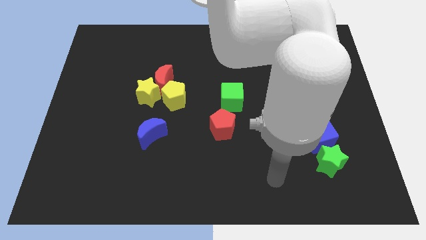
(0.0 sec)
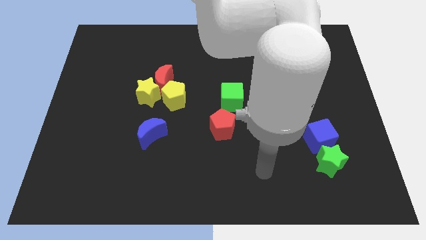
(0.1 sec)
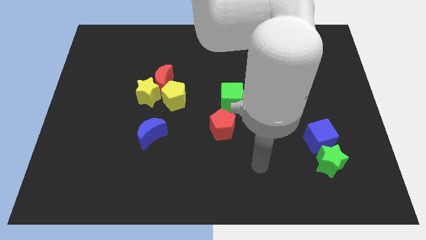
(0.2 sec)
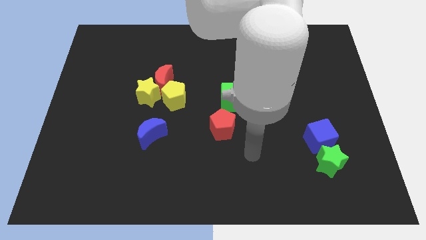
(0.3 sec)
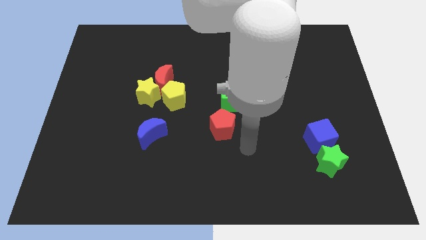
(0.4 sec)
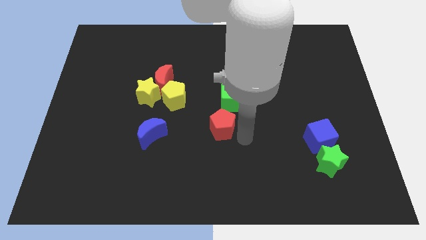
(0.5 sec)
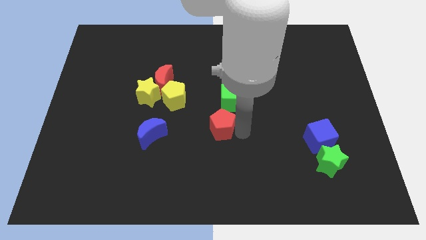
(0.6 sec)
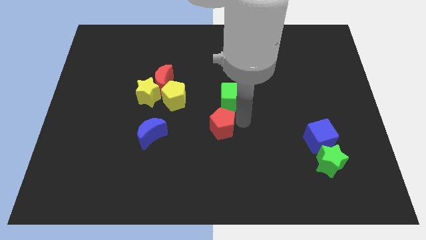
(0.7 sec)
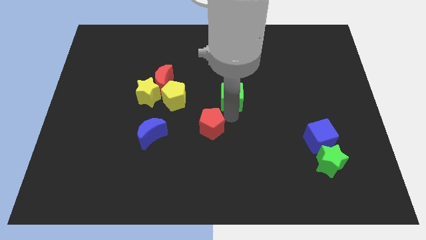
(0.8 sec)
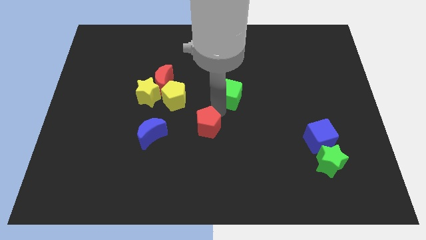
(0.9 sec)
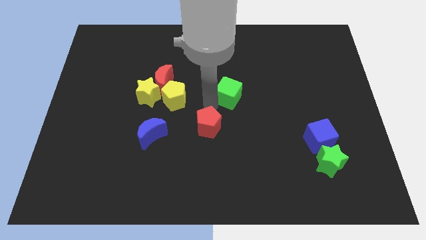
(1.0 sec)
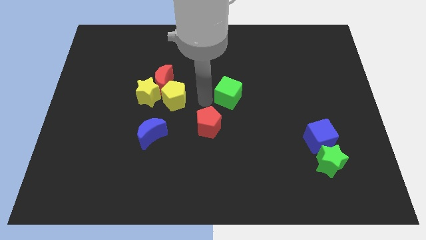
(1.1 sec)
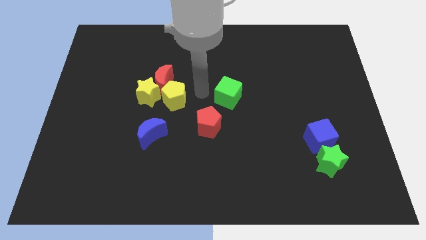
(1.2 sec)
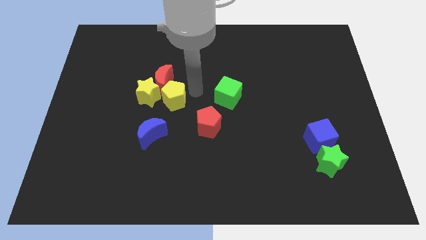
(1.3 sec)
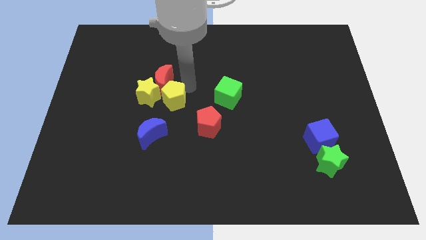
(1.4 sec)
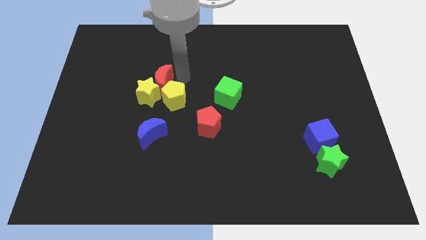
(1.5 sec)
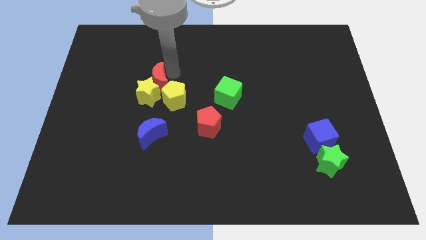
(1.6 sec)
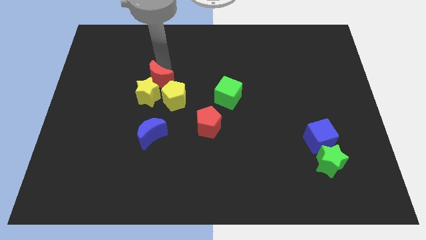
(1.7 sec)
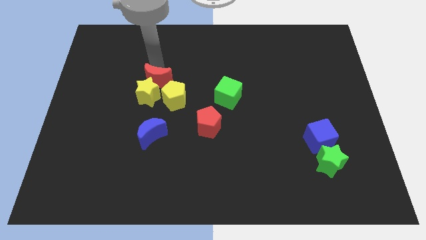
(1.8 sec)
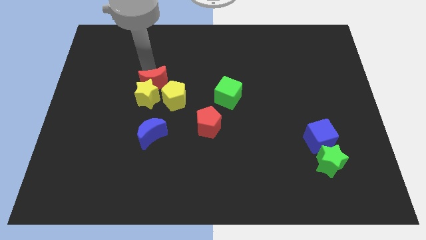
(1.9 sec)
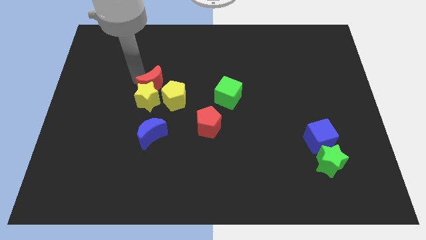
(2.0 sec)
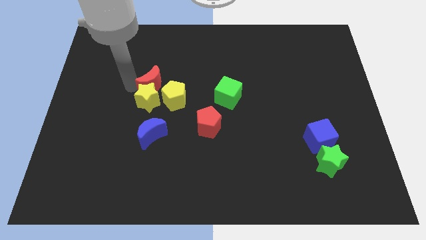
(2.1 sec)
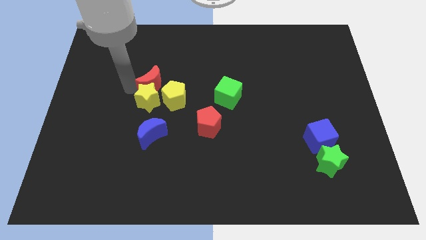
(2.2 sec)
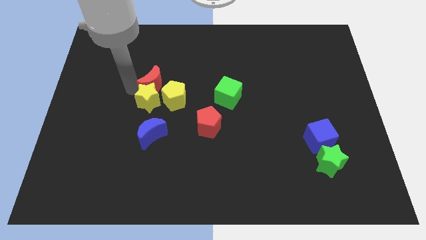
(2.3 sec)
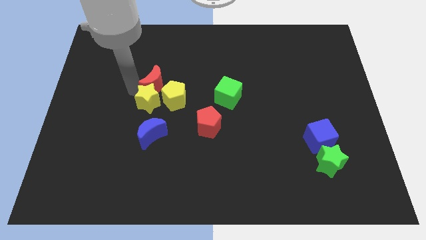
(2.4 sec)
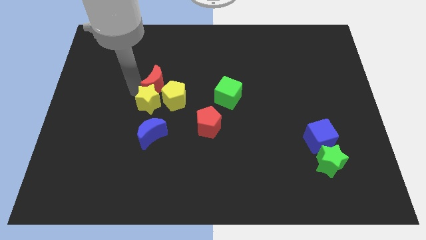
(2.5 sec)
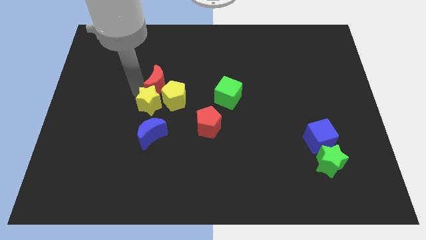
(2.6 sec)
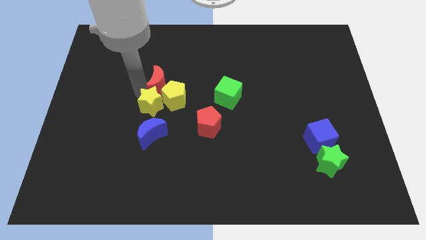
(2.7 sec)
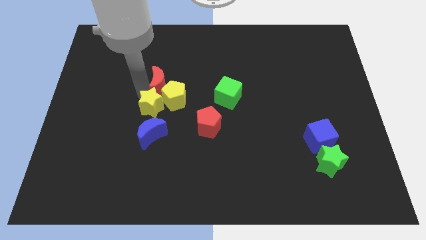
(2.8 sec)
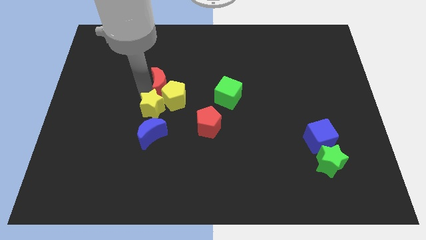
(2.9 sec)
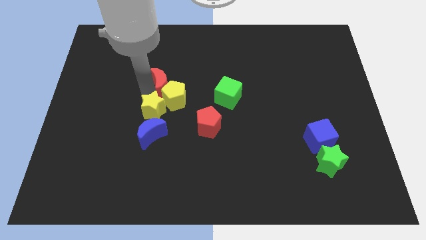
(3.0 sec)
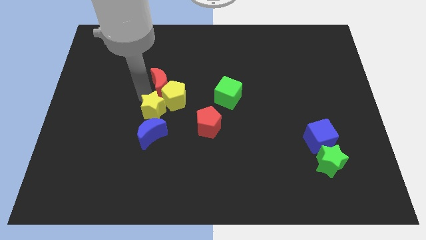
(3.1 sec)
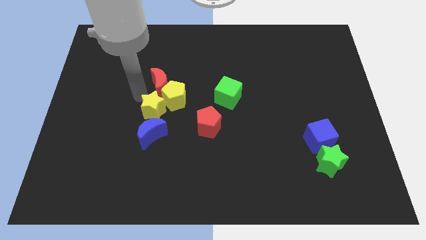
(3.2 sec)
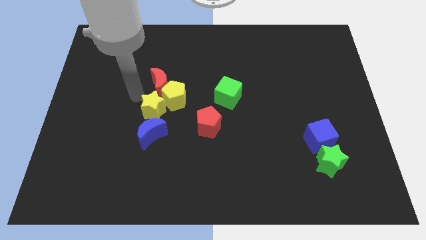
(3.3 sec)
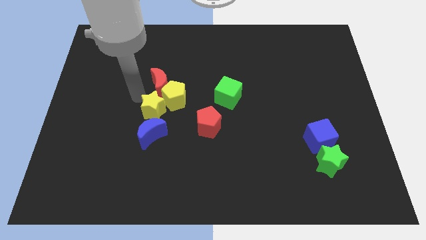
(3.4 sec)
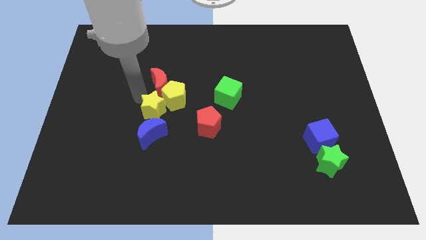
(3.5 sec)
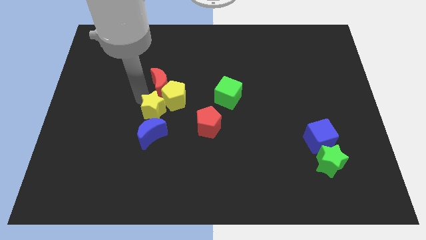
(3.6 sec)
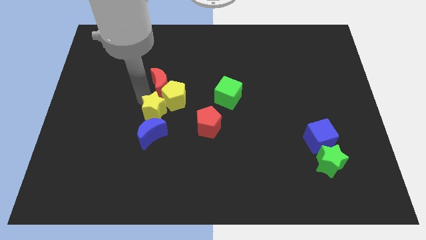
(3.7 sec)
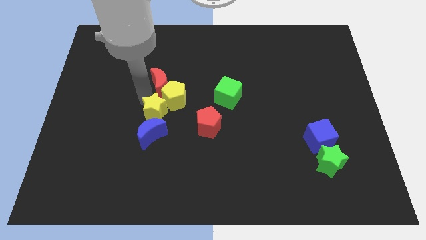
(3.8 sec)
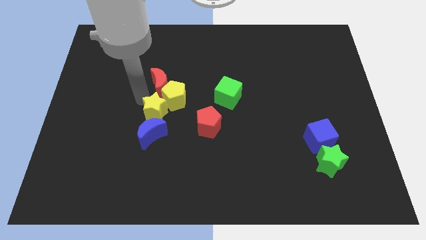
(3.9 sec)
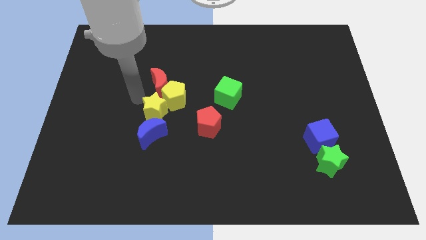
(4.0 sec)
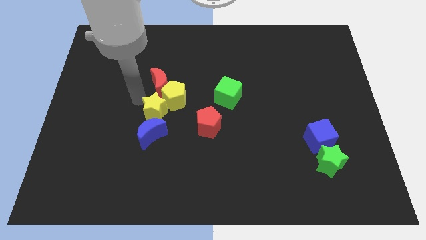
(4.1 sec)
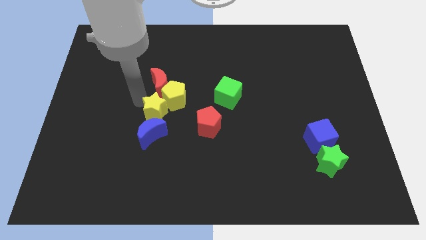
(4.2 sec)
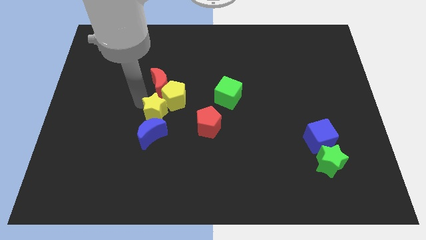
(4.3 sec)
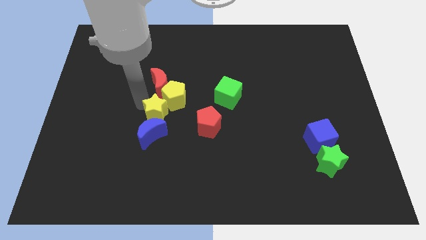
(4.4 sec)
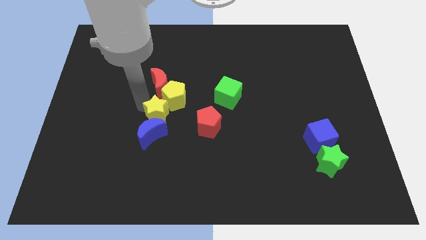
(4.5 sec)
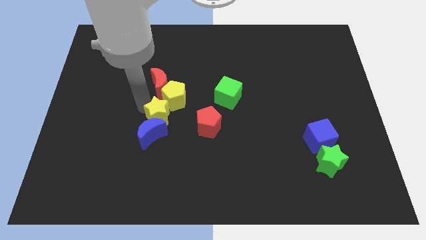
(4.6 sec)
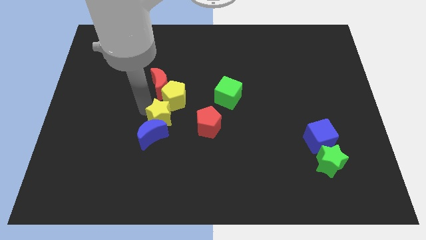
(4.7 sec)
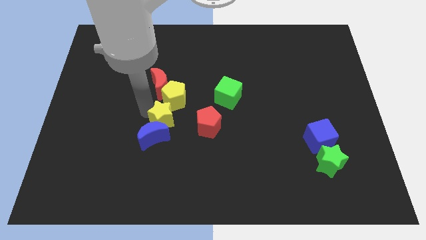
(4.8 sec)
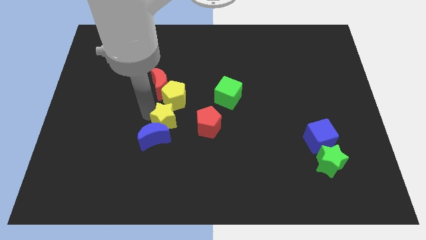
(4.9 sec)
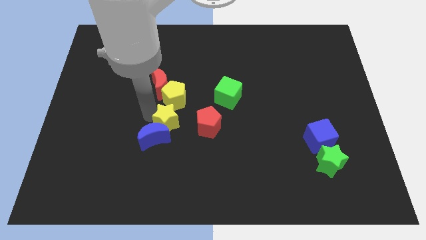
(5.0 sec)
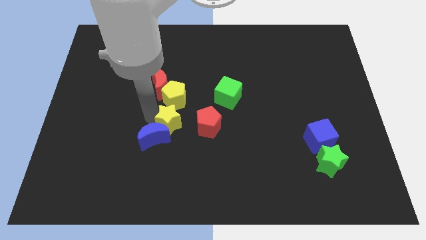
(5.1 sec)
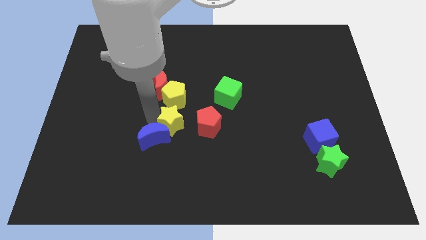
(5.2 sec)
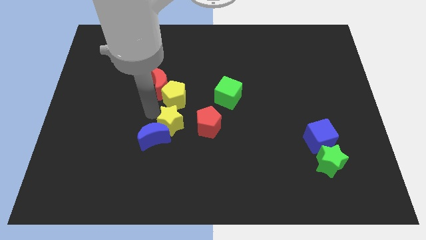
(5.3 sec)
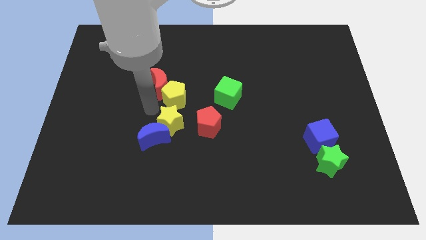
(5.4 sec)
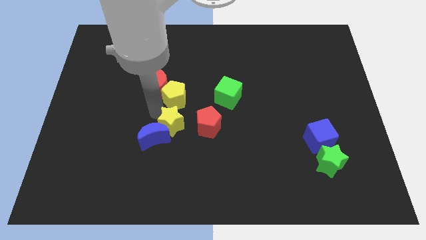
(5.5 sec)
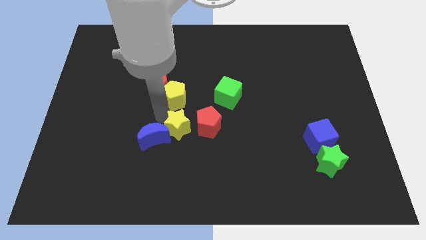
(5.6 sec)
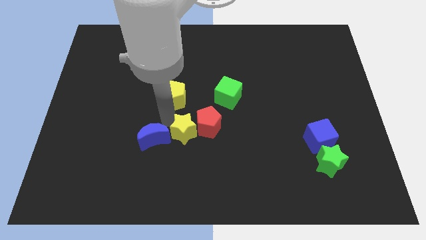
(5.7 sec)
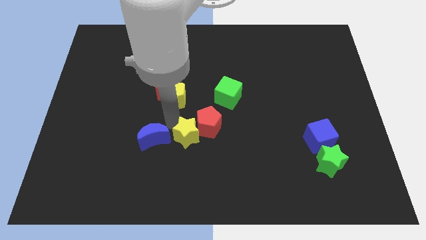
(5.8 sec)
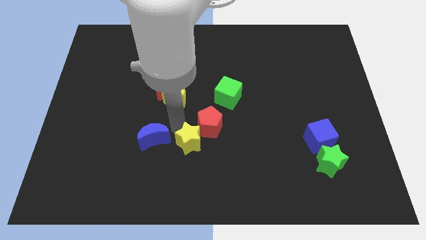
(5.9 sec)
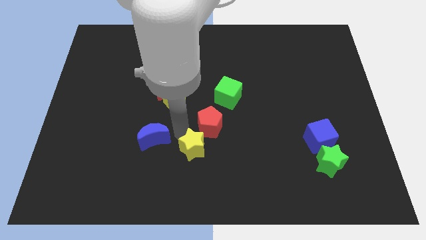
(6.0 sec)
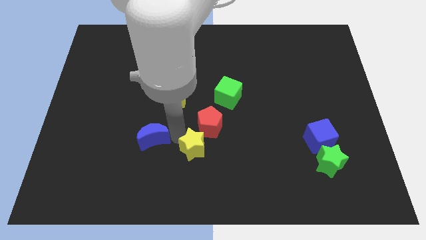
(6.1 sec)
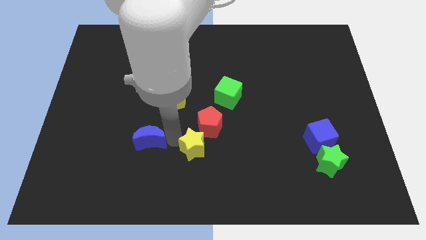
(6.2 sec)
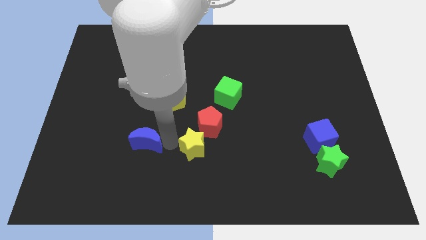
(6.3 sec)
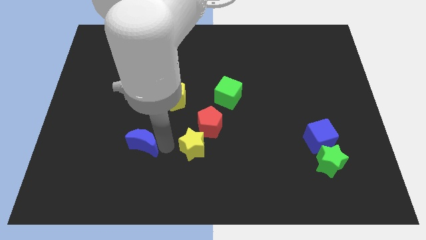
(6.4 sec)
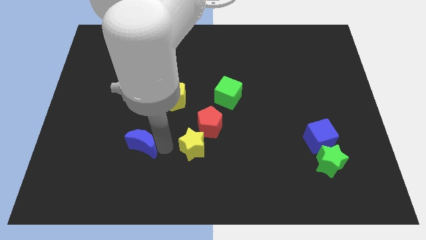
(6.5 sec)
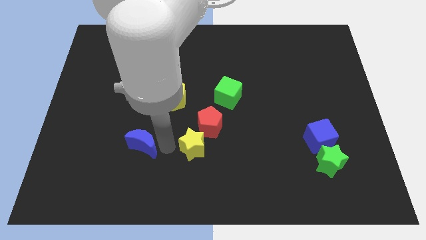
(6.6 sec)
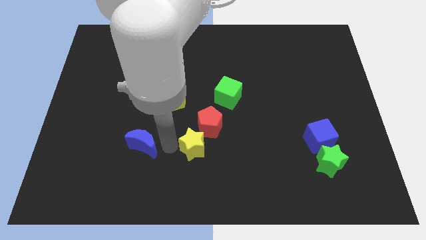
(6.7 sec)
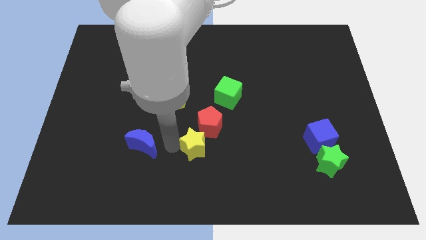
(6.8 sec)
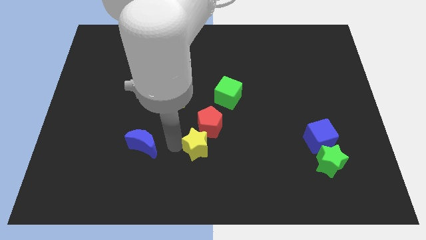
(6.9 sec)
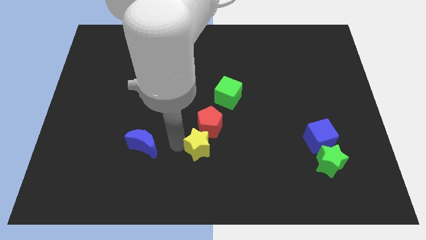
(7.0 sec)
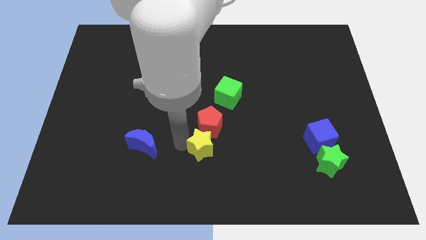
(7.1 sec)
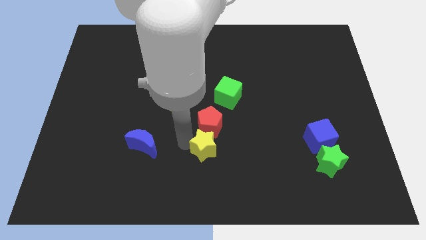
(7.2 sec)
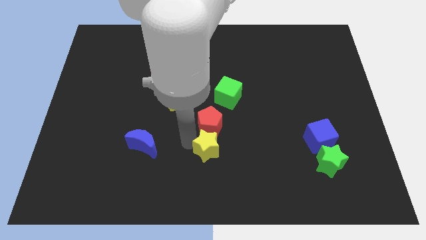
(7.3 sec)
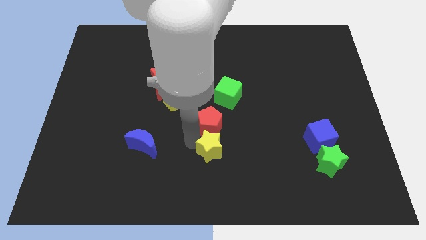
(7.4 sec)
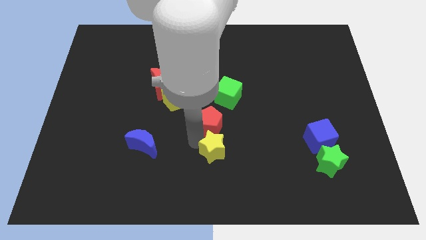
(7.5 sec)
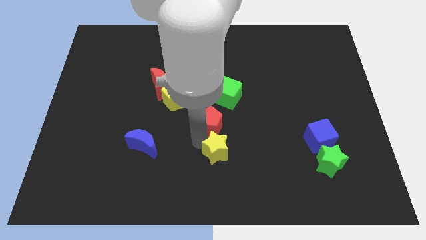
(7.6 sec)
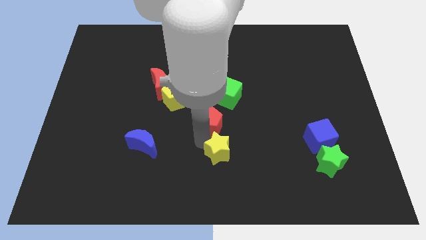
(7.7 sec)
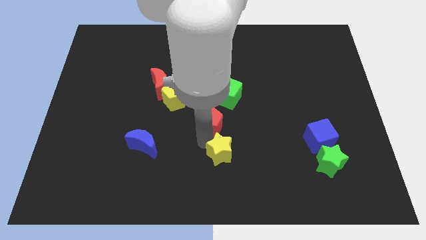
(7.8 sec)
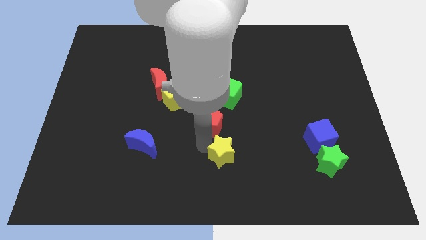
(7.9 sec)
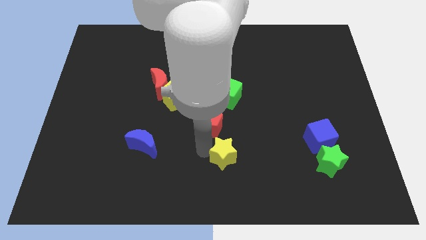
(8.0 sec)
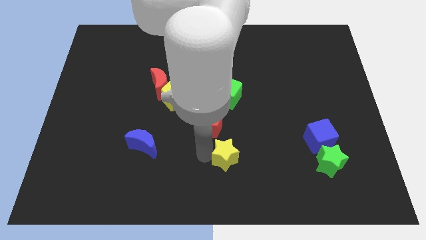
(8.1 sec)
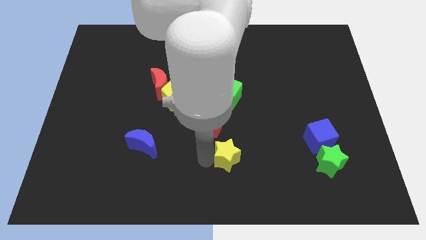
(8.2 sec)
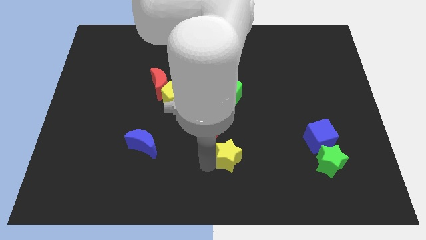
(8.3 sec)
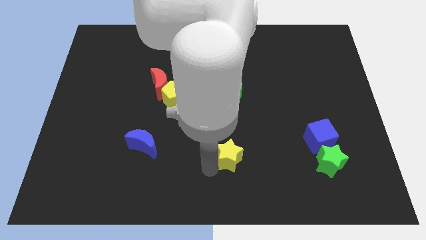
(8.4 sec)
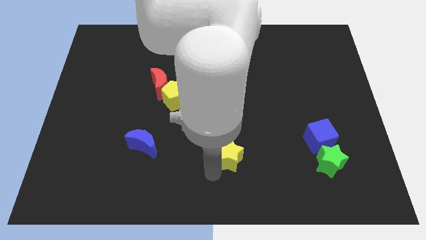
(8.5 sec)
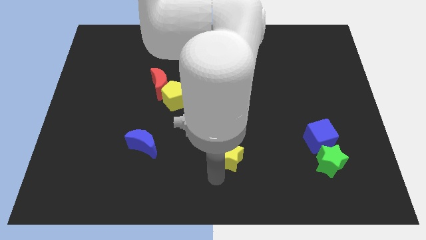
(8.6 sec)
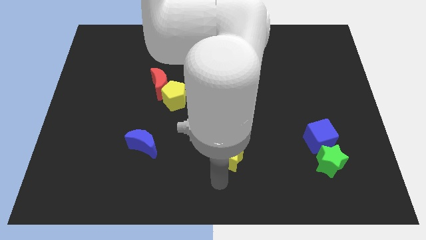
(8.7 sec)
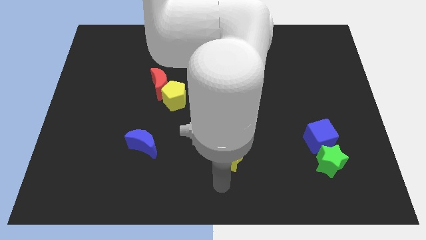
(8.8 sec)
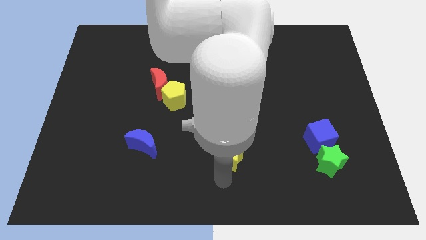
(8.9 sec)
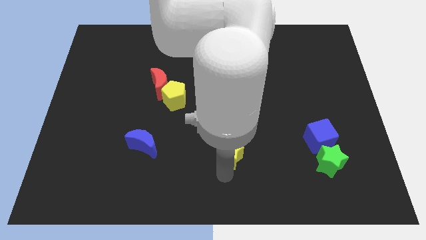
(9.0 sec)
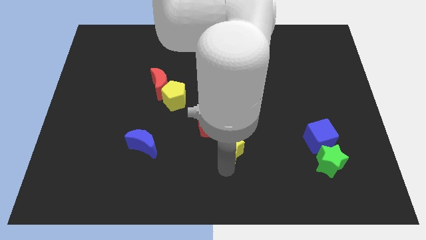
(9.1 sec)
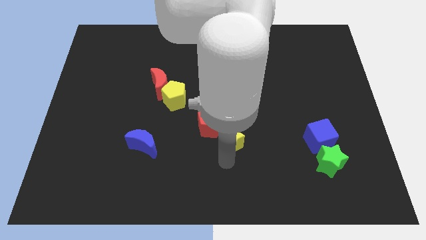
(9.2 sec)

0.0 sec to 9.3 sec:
move the yellow star to the right of the red pentagon
